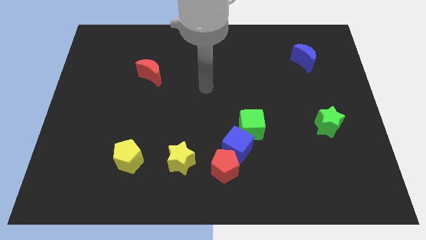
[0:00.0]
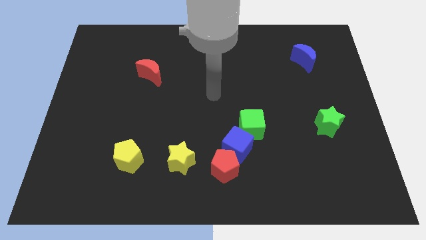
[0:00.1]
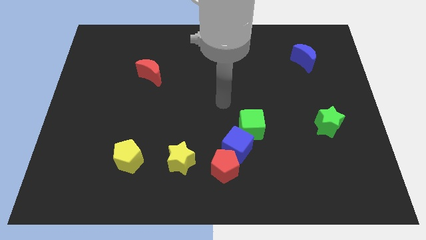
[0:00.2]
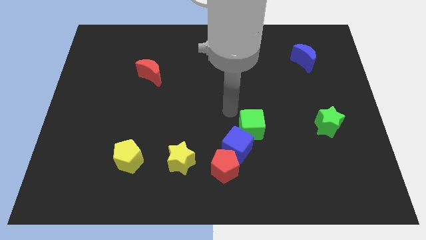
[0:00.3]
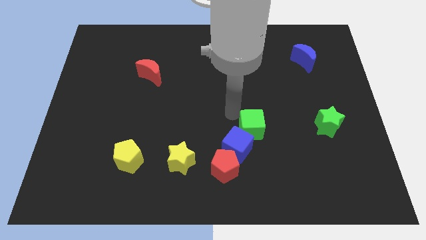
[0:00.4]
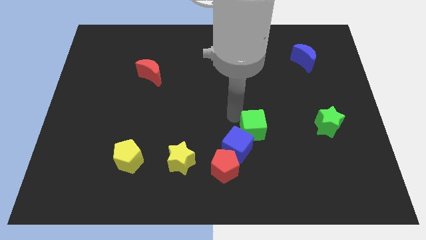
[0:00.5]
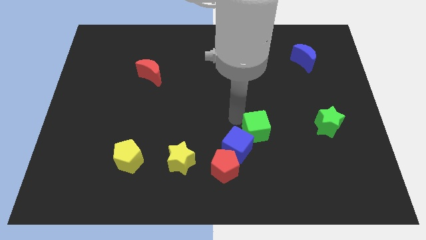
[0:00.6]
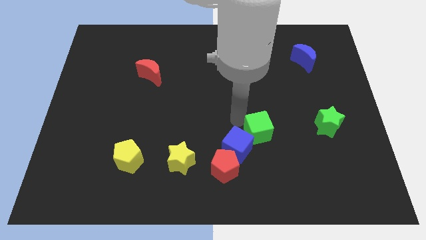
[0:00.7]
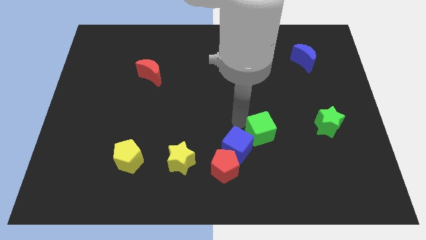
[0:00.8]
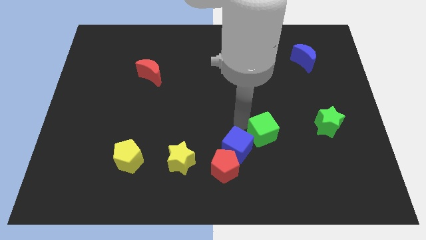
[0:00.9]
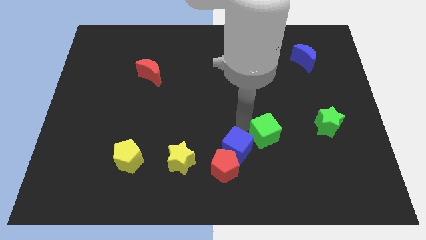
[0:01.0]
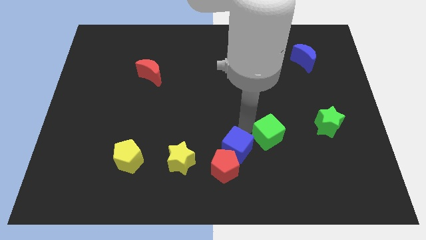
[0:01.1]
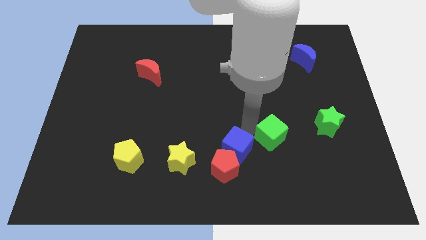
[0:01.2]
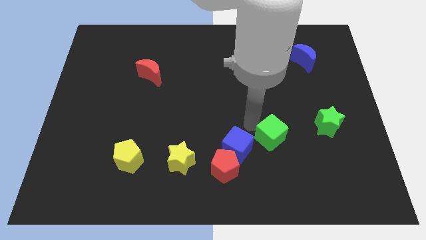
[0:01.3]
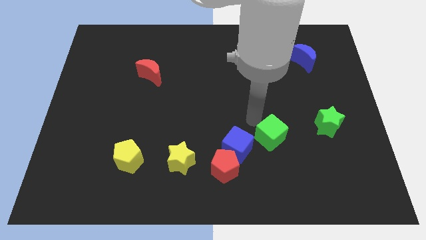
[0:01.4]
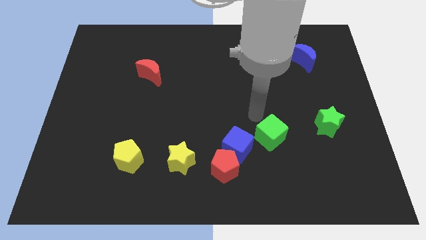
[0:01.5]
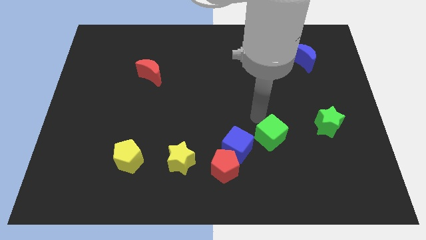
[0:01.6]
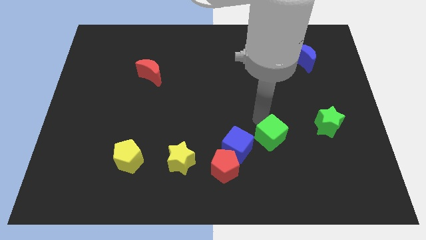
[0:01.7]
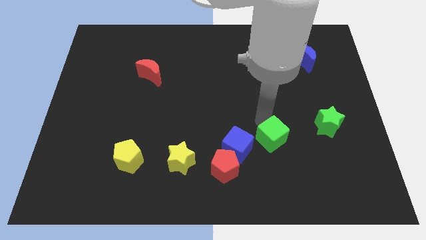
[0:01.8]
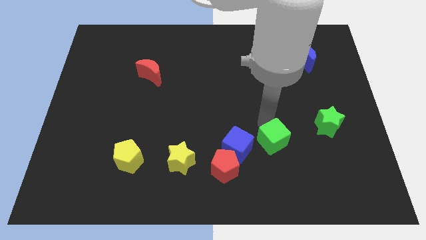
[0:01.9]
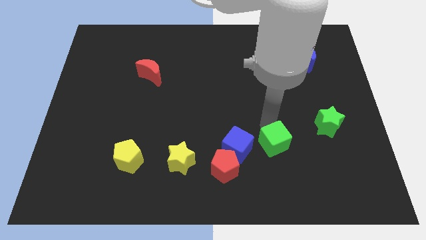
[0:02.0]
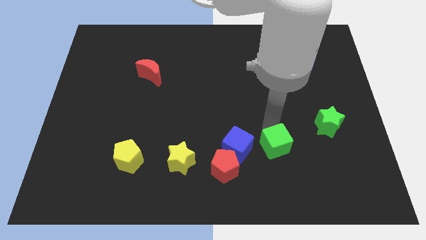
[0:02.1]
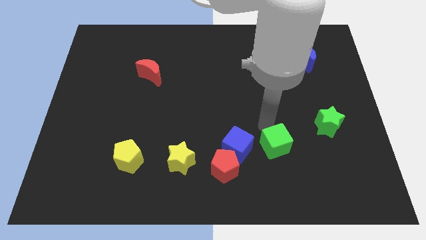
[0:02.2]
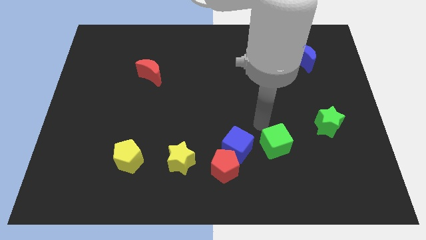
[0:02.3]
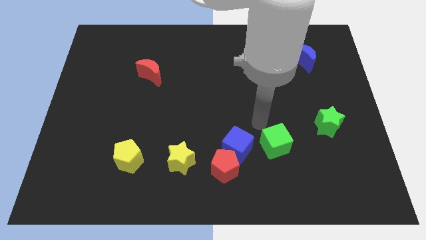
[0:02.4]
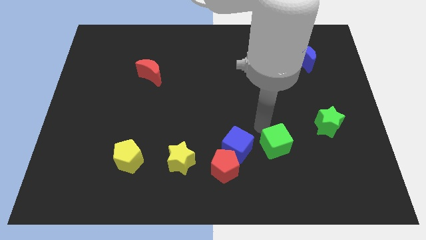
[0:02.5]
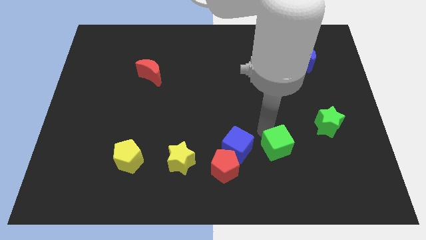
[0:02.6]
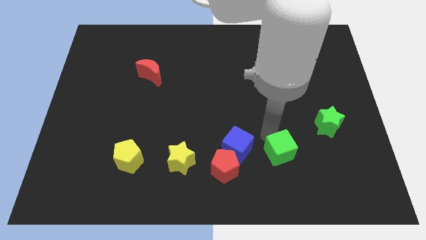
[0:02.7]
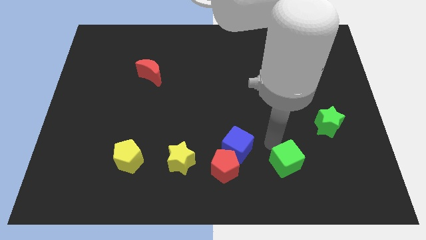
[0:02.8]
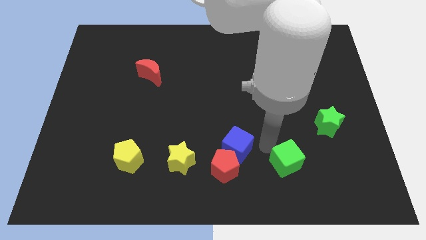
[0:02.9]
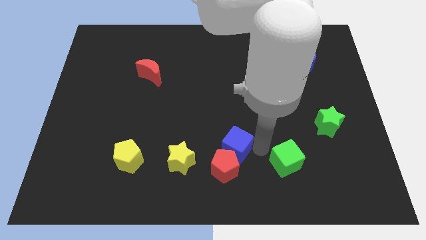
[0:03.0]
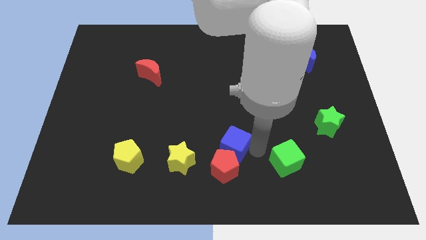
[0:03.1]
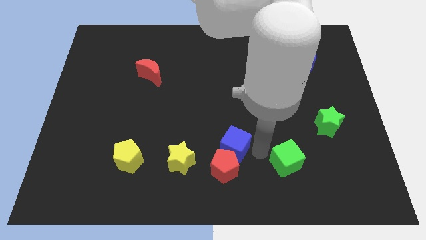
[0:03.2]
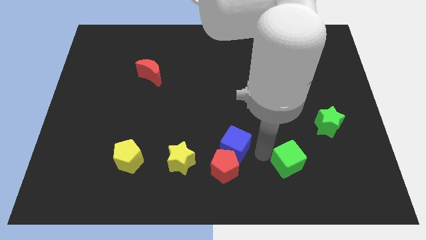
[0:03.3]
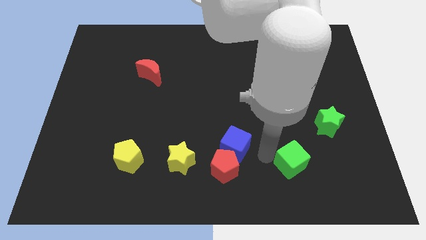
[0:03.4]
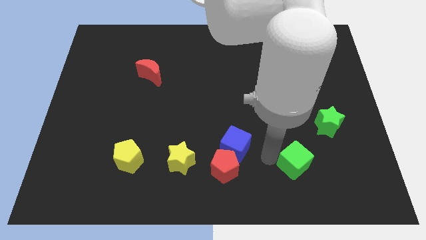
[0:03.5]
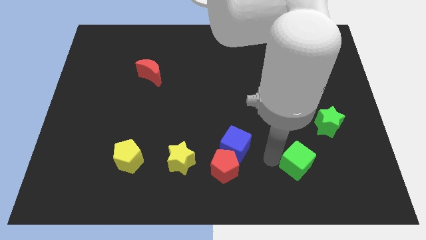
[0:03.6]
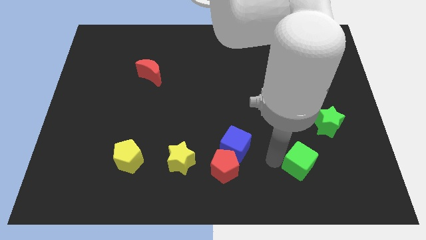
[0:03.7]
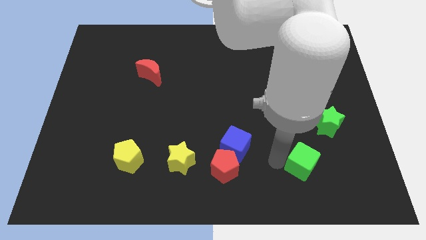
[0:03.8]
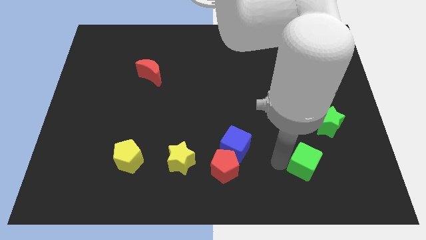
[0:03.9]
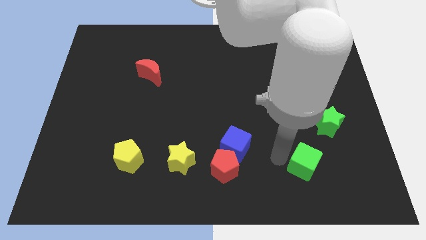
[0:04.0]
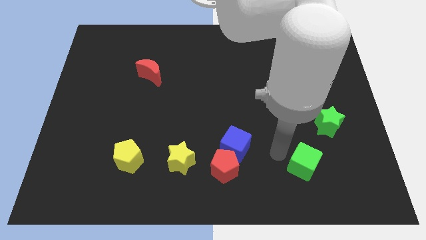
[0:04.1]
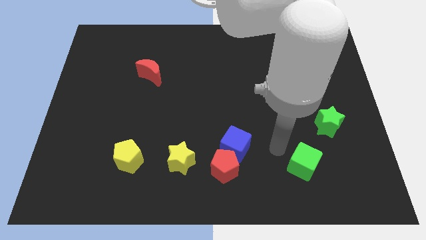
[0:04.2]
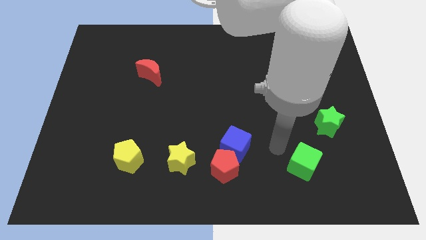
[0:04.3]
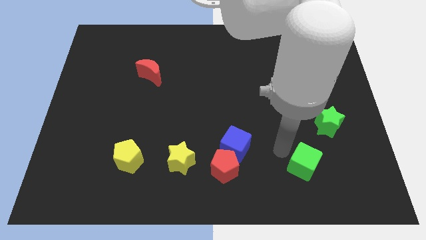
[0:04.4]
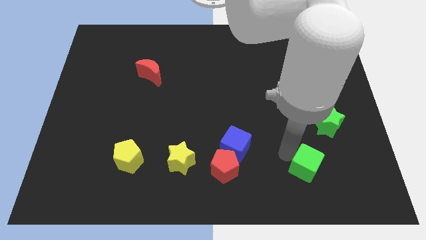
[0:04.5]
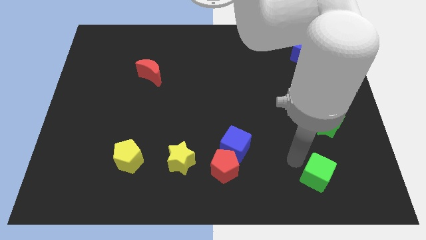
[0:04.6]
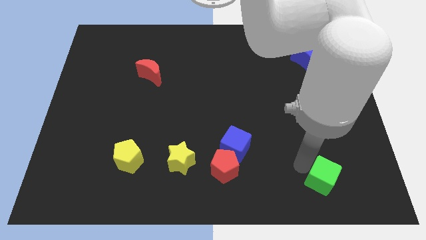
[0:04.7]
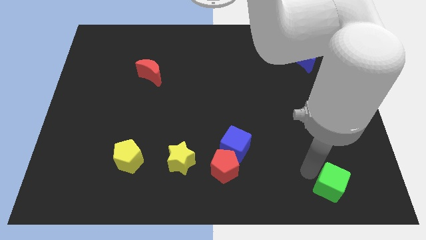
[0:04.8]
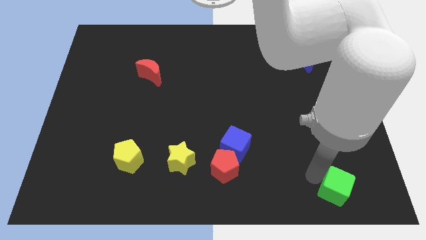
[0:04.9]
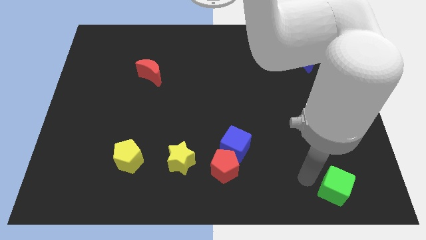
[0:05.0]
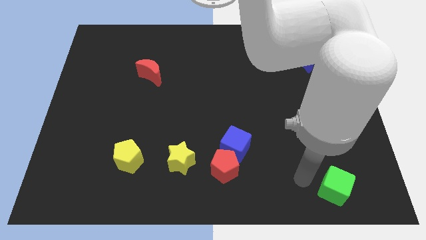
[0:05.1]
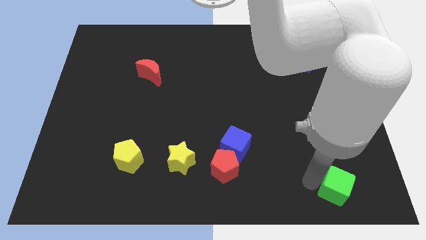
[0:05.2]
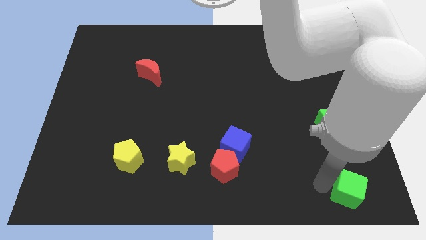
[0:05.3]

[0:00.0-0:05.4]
move the green cube to the bottom right of the board

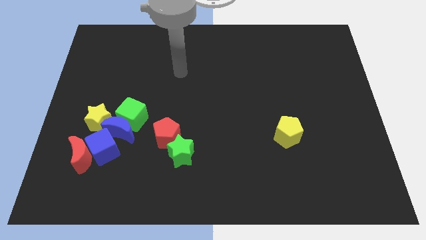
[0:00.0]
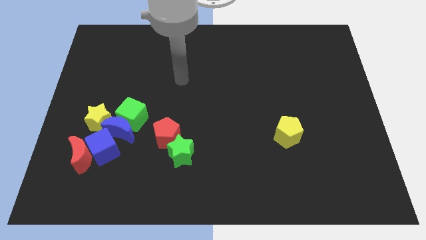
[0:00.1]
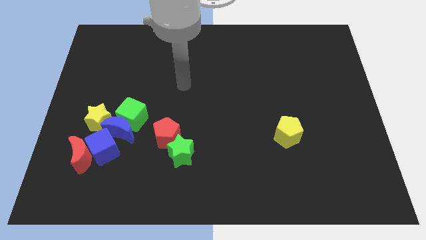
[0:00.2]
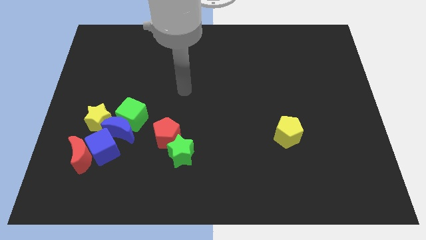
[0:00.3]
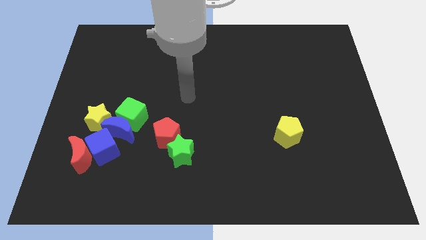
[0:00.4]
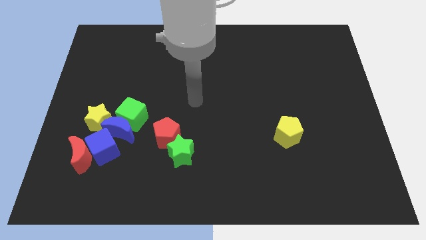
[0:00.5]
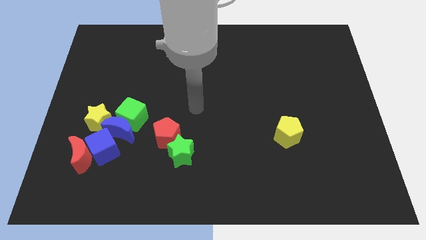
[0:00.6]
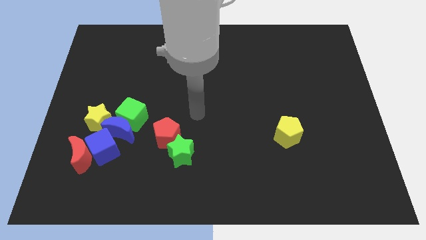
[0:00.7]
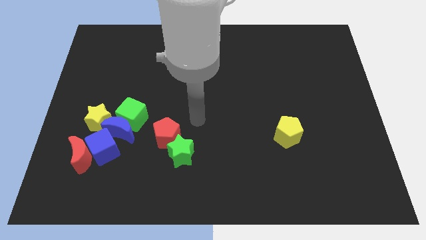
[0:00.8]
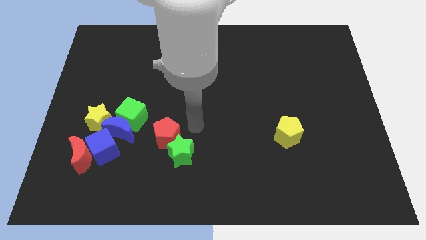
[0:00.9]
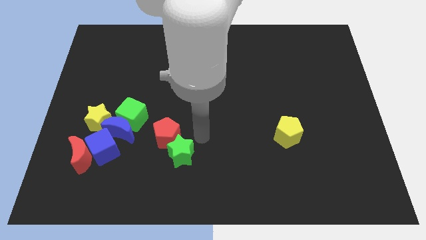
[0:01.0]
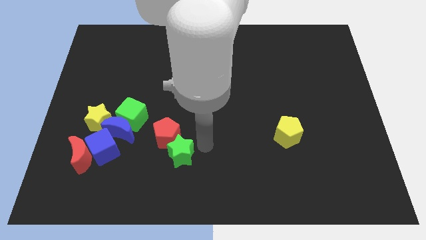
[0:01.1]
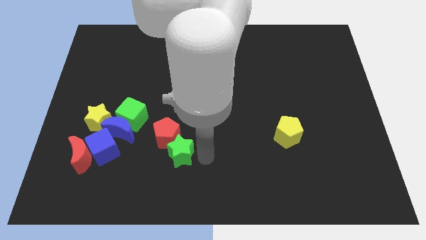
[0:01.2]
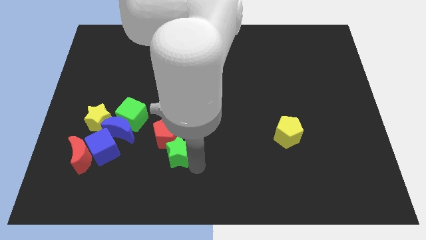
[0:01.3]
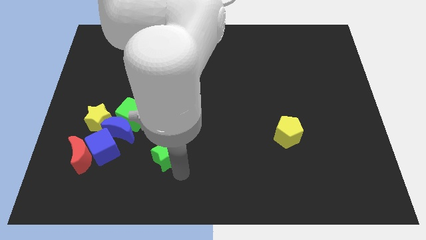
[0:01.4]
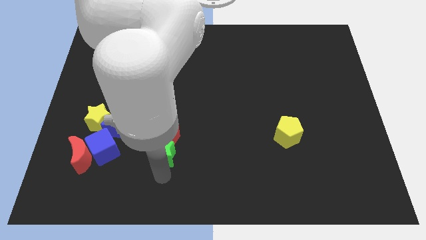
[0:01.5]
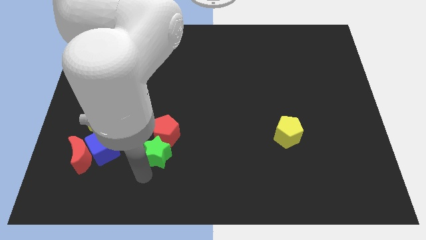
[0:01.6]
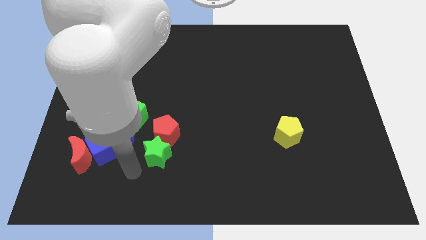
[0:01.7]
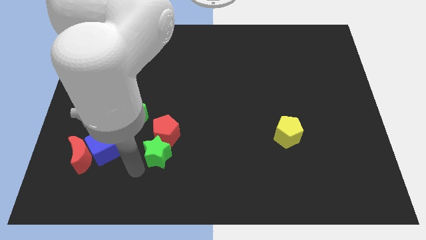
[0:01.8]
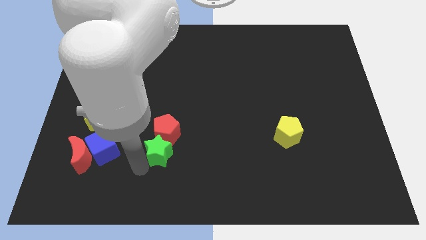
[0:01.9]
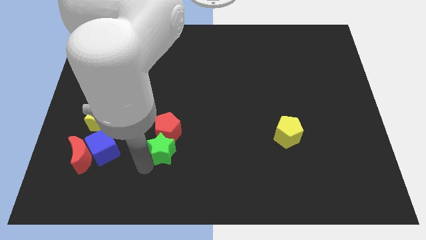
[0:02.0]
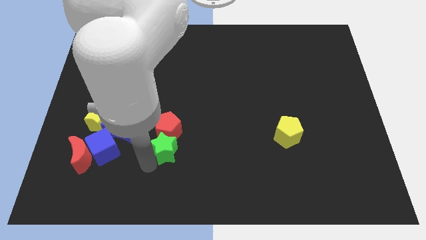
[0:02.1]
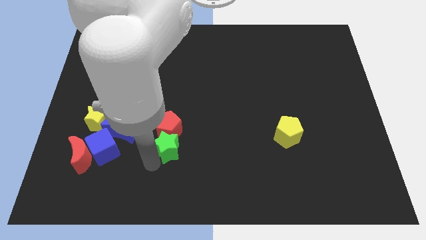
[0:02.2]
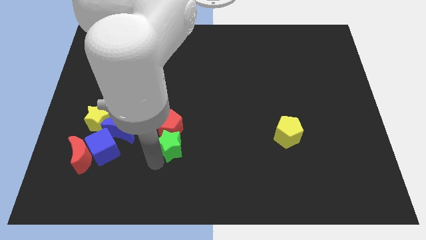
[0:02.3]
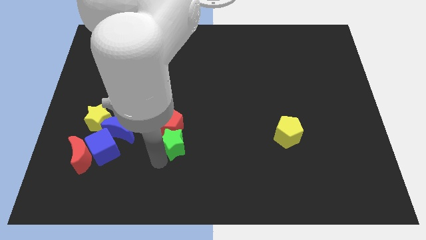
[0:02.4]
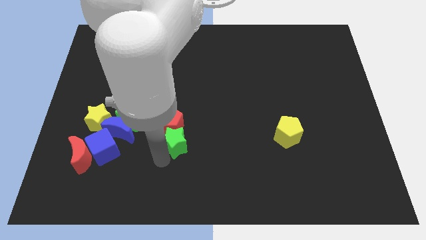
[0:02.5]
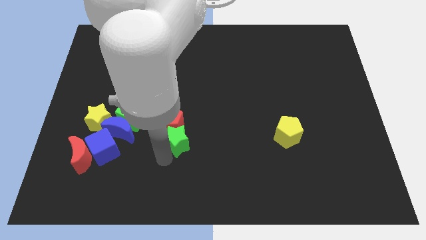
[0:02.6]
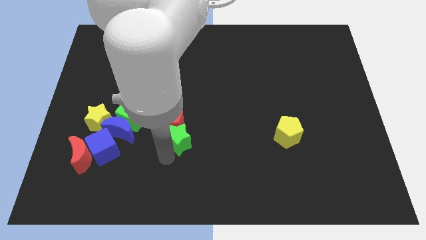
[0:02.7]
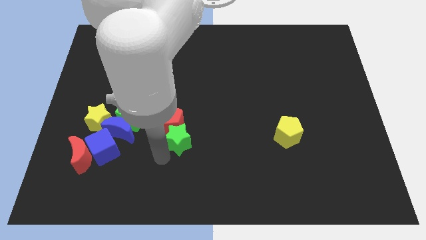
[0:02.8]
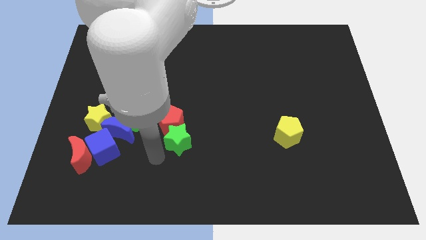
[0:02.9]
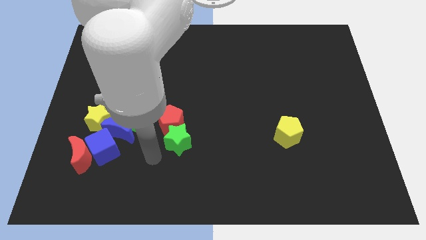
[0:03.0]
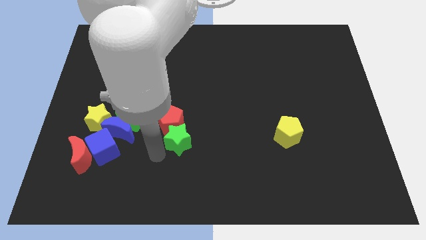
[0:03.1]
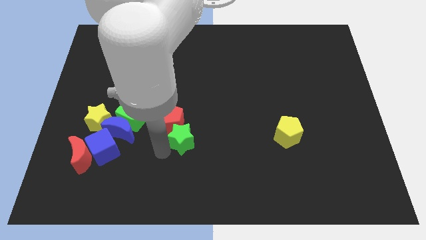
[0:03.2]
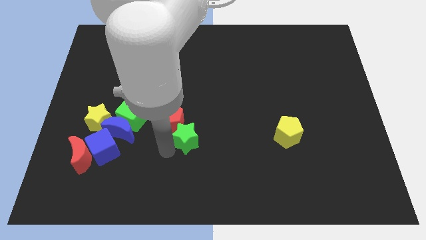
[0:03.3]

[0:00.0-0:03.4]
slide the green star to the center of the board
